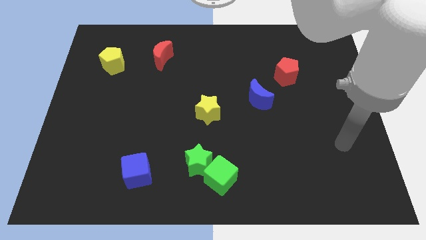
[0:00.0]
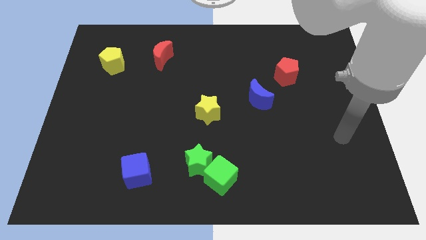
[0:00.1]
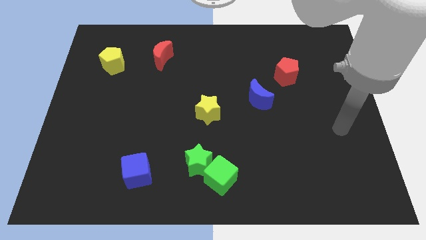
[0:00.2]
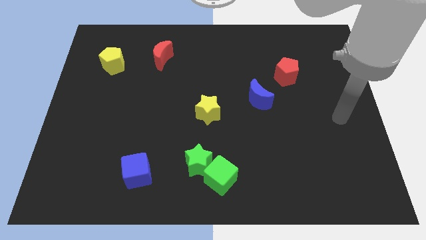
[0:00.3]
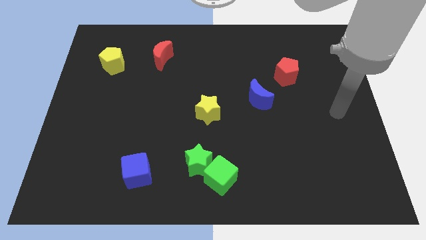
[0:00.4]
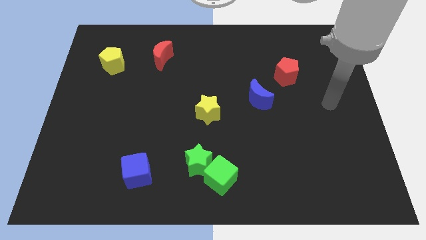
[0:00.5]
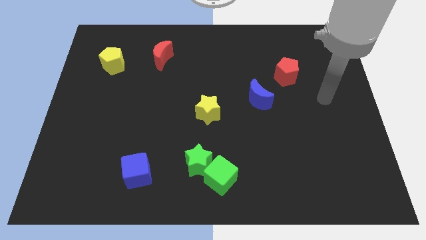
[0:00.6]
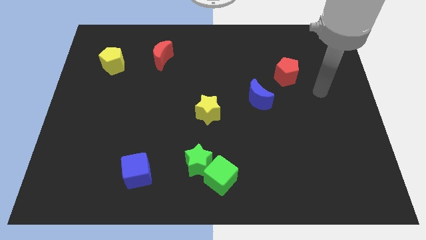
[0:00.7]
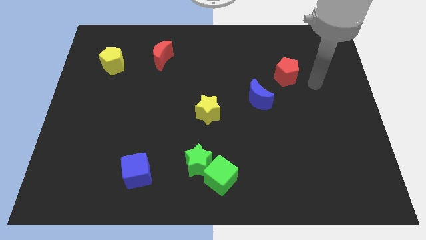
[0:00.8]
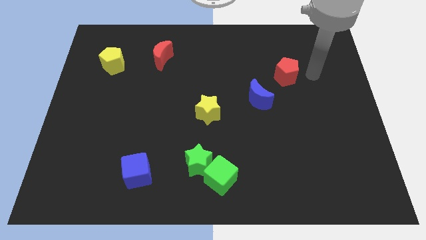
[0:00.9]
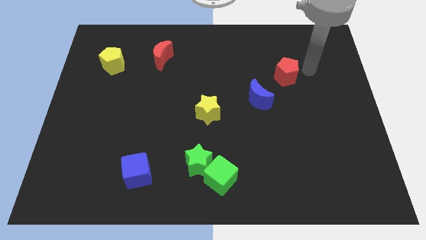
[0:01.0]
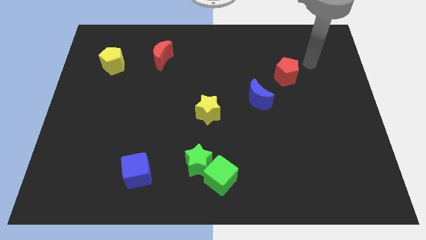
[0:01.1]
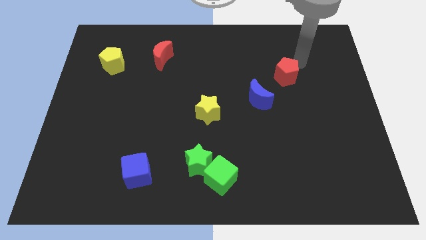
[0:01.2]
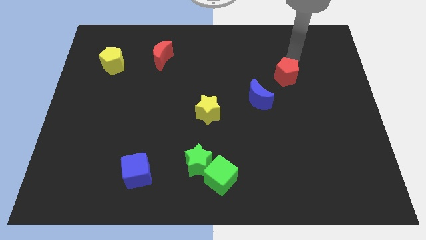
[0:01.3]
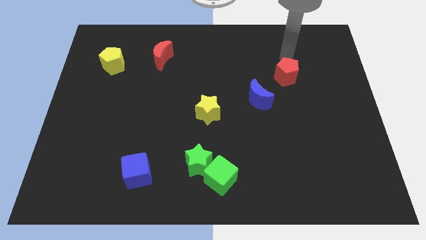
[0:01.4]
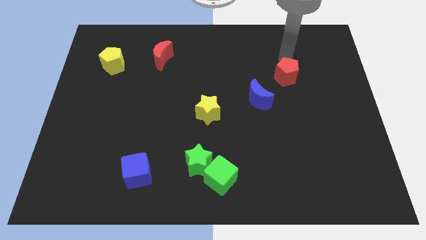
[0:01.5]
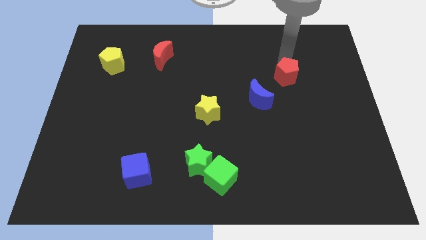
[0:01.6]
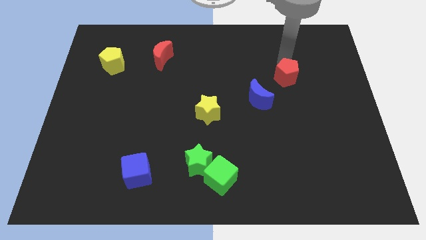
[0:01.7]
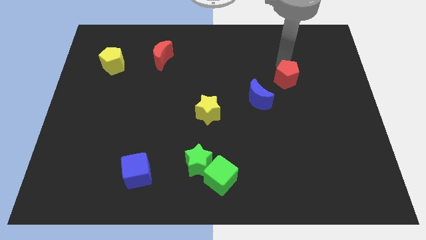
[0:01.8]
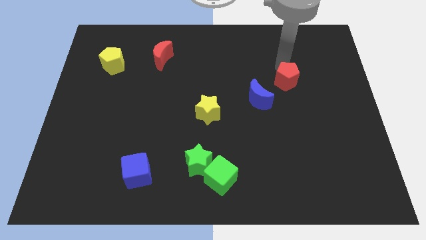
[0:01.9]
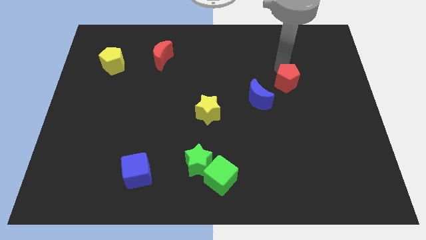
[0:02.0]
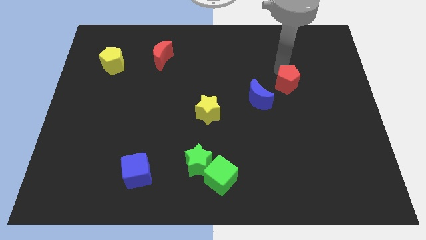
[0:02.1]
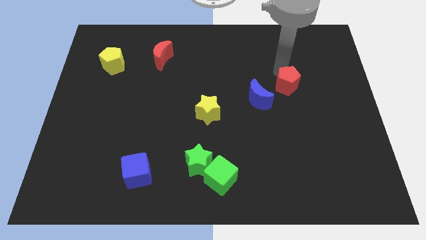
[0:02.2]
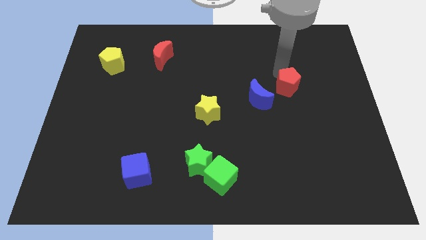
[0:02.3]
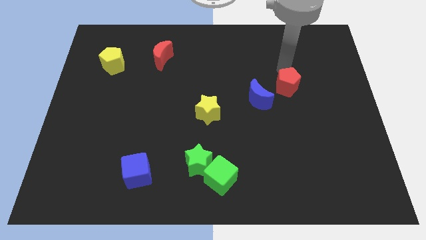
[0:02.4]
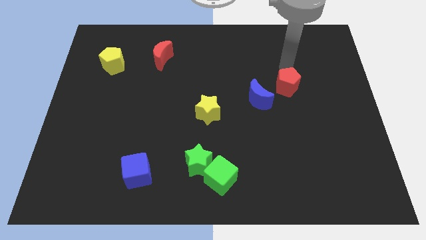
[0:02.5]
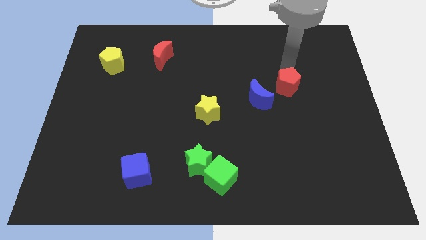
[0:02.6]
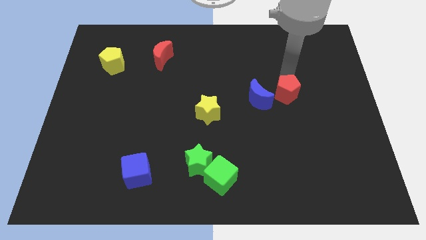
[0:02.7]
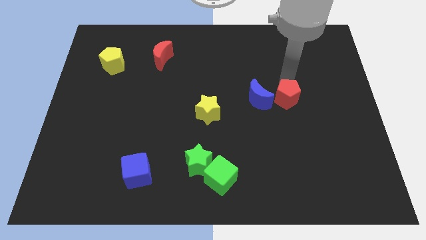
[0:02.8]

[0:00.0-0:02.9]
move the red pentagon slightly down

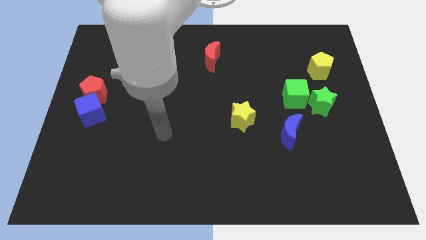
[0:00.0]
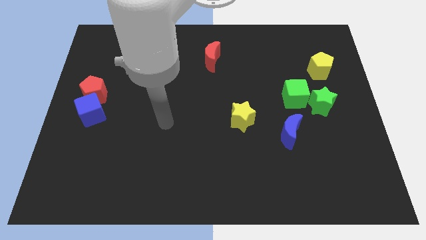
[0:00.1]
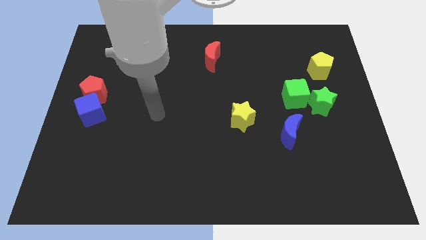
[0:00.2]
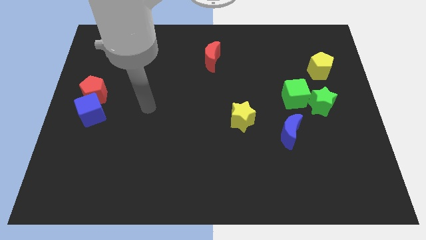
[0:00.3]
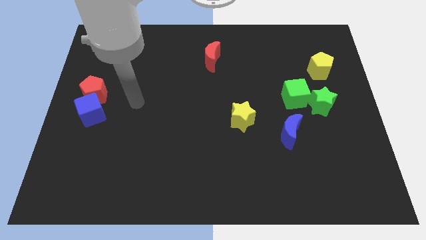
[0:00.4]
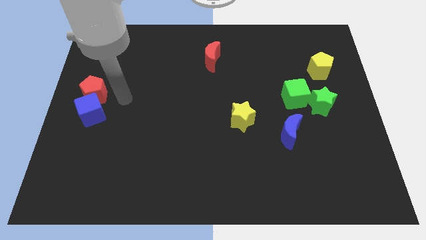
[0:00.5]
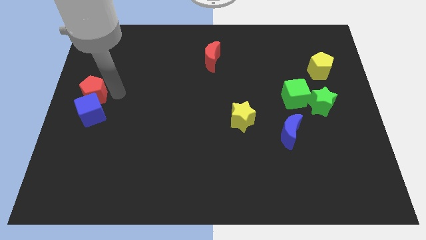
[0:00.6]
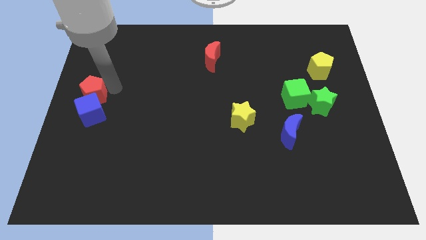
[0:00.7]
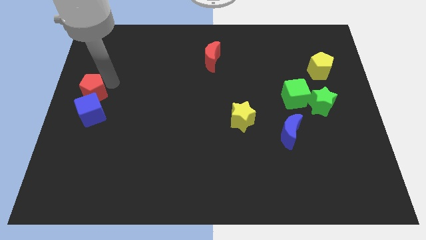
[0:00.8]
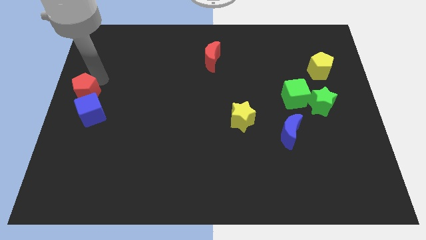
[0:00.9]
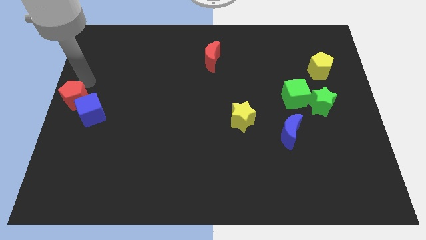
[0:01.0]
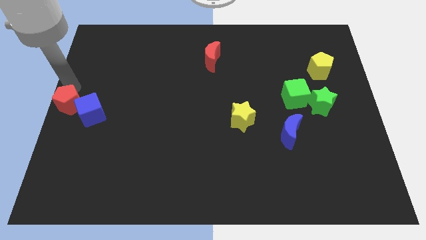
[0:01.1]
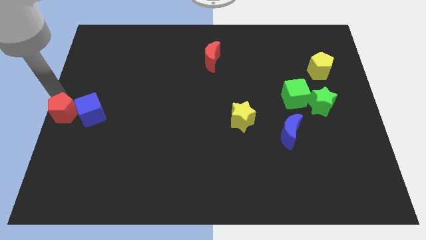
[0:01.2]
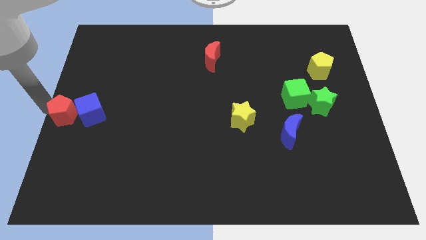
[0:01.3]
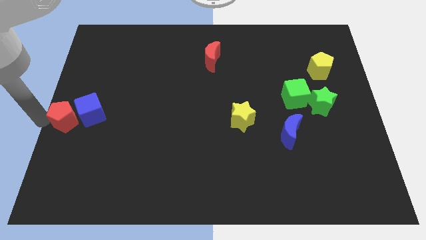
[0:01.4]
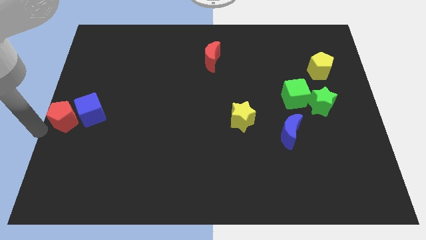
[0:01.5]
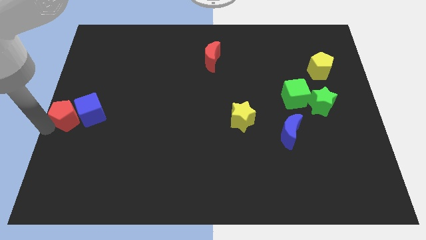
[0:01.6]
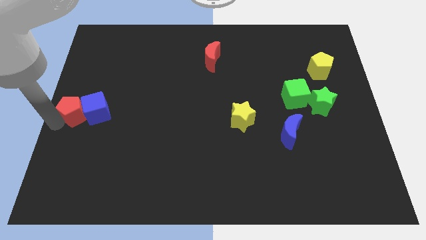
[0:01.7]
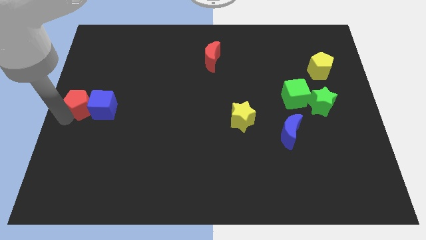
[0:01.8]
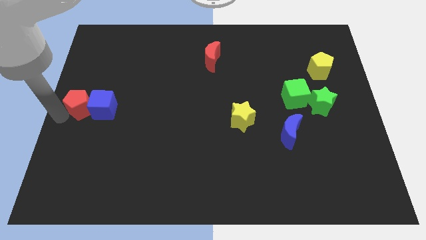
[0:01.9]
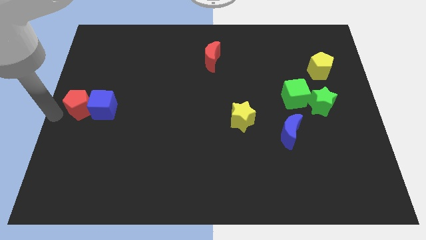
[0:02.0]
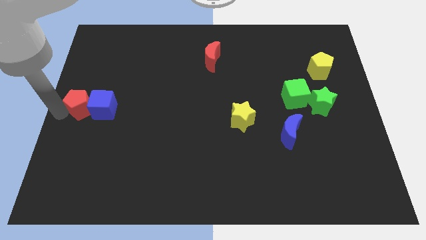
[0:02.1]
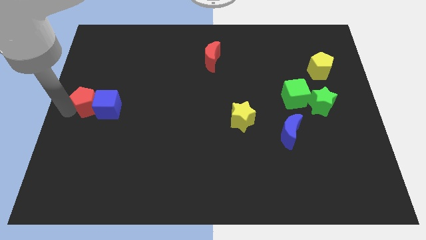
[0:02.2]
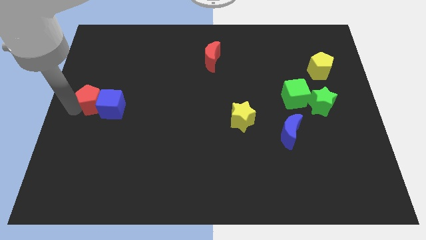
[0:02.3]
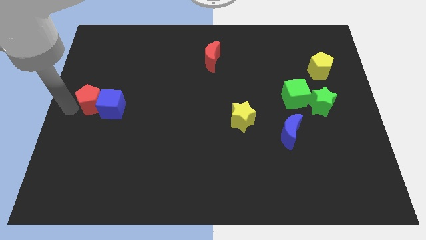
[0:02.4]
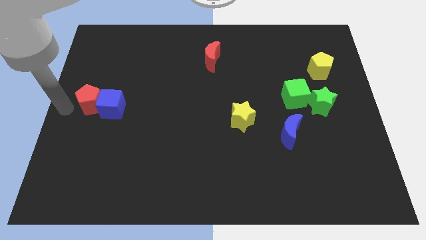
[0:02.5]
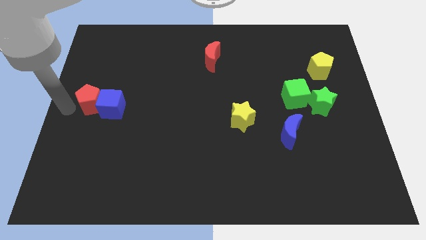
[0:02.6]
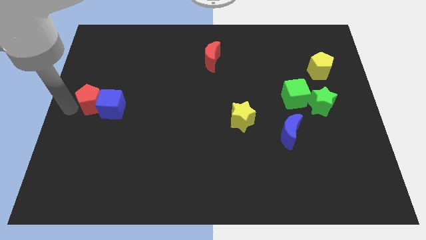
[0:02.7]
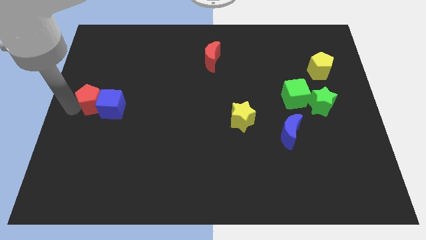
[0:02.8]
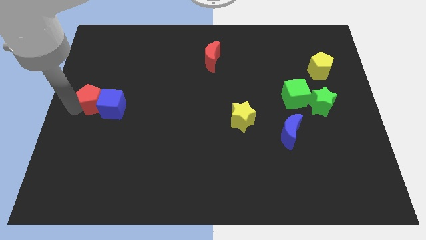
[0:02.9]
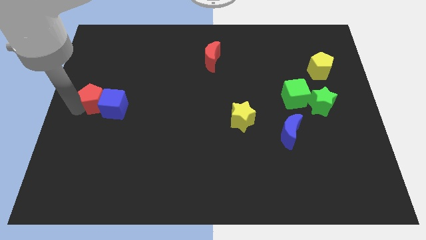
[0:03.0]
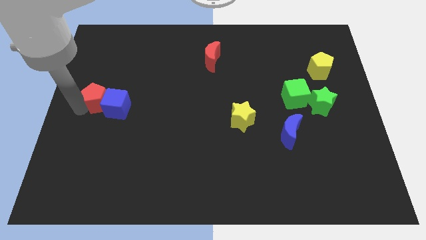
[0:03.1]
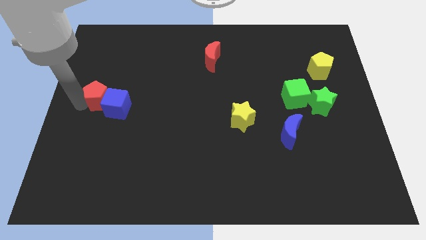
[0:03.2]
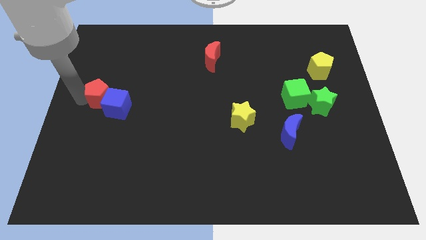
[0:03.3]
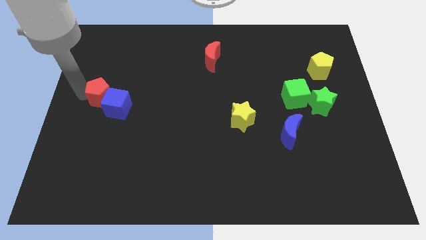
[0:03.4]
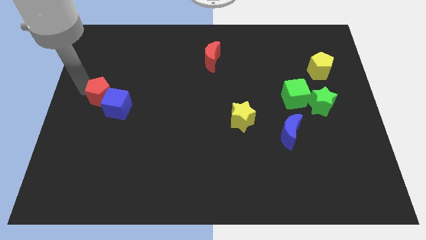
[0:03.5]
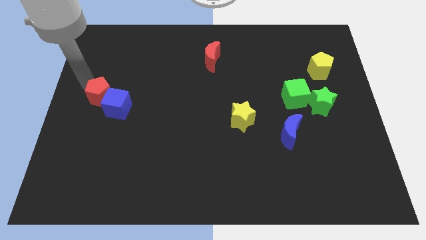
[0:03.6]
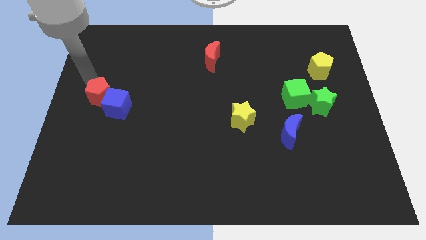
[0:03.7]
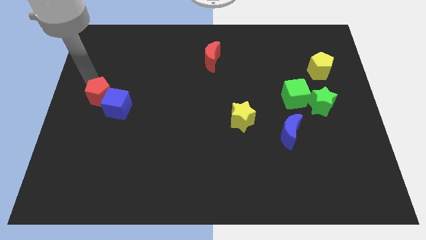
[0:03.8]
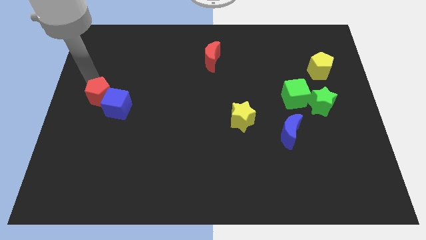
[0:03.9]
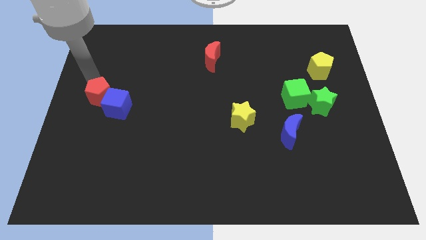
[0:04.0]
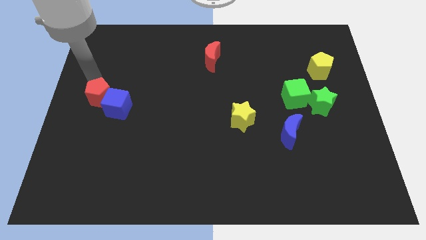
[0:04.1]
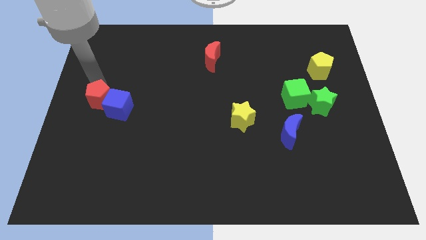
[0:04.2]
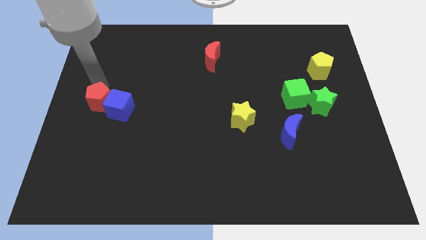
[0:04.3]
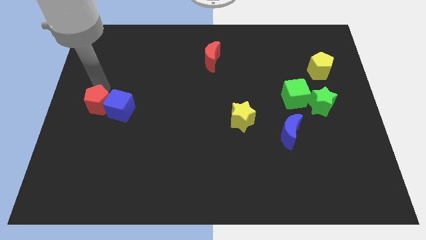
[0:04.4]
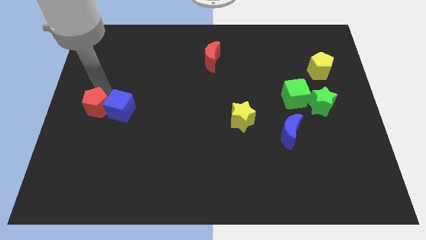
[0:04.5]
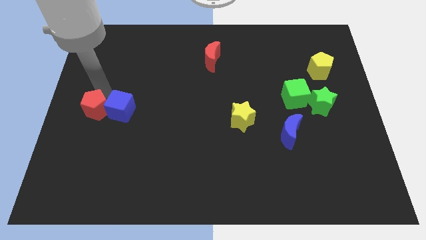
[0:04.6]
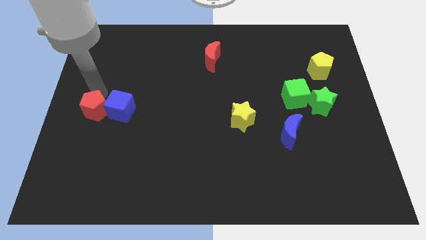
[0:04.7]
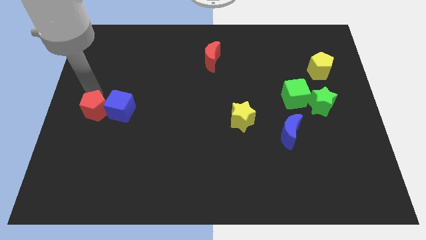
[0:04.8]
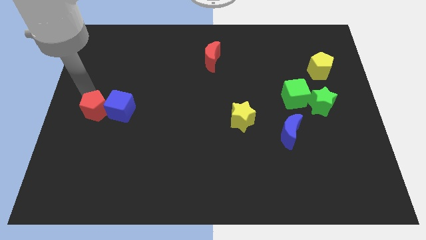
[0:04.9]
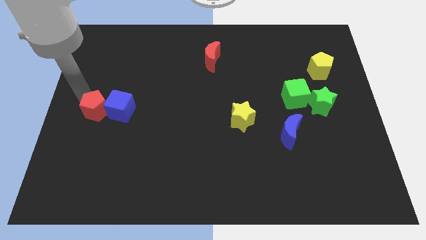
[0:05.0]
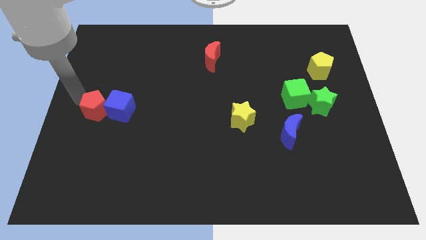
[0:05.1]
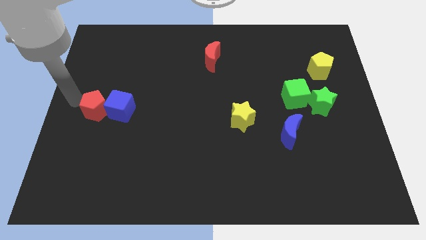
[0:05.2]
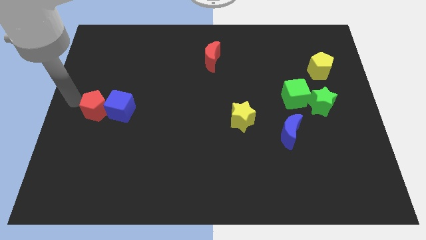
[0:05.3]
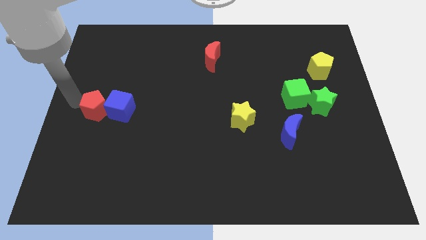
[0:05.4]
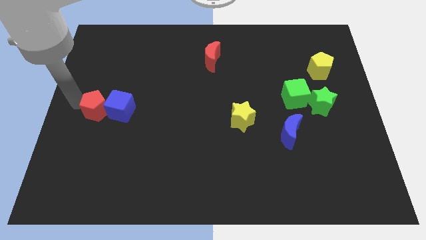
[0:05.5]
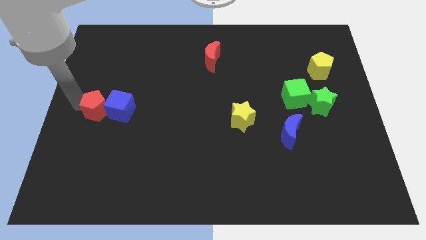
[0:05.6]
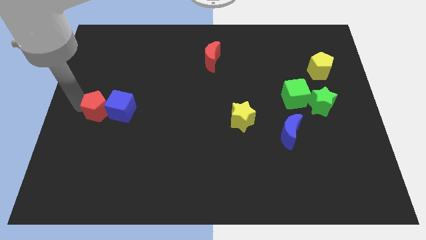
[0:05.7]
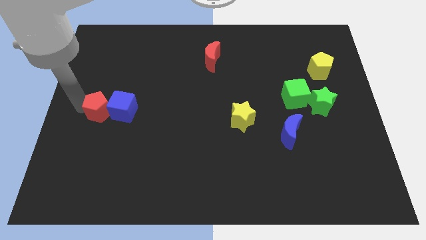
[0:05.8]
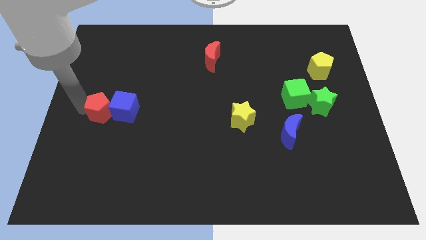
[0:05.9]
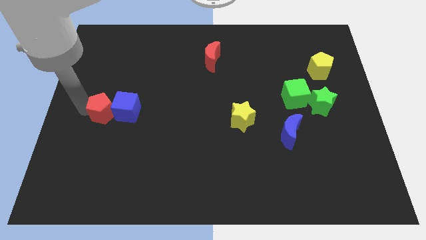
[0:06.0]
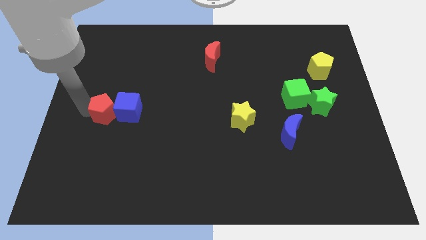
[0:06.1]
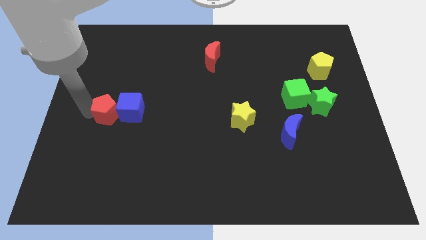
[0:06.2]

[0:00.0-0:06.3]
slide the red pentagon a little bit down and to the right diagonally
